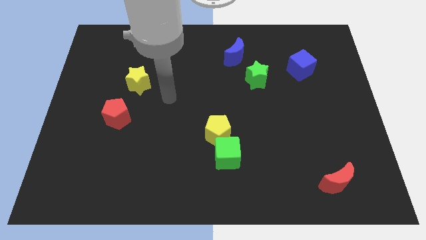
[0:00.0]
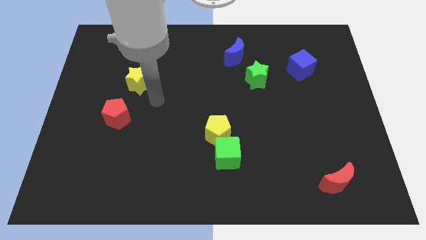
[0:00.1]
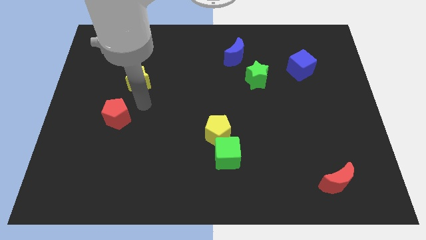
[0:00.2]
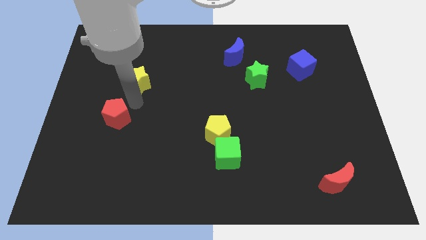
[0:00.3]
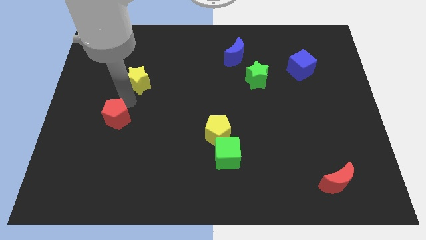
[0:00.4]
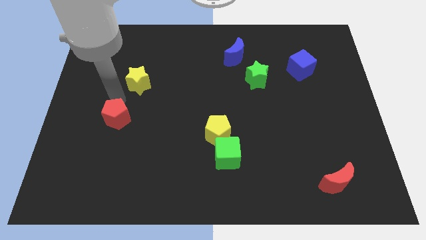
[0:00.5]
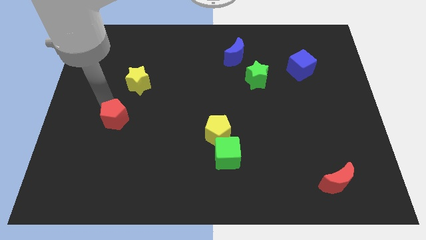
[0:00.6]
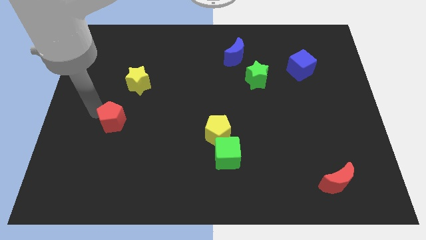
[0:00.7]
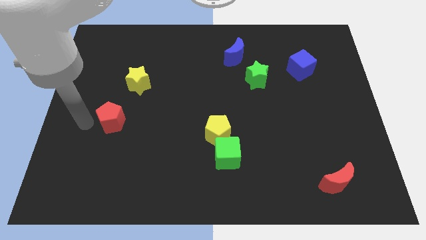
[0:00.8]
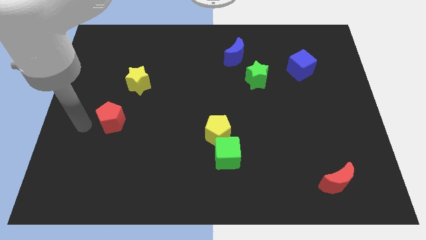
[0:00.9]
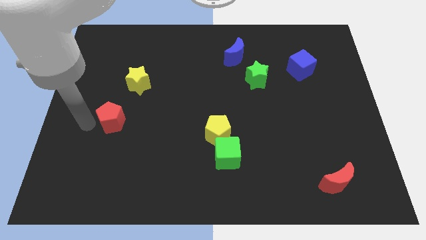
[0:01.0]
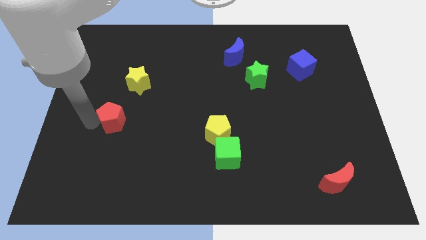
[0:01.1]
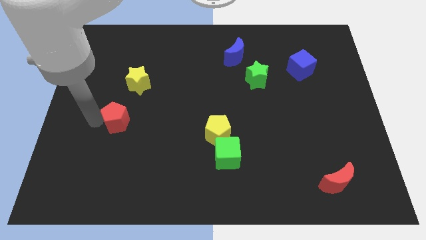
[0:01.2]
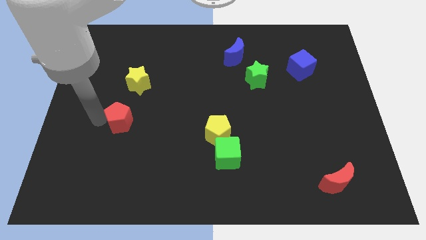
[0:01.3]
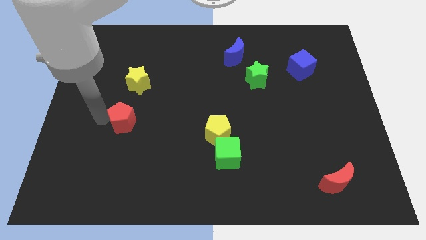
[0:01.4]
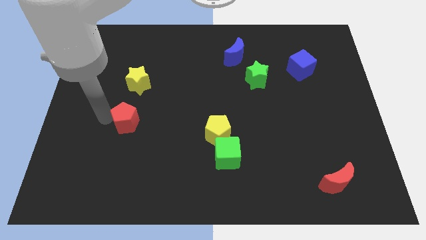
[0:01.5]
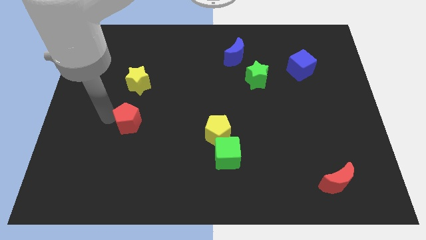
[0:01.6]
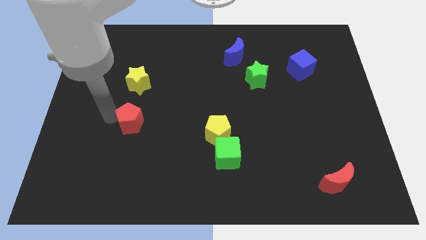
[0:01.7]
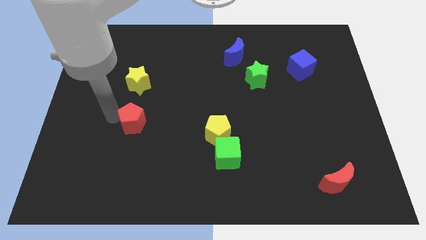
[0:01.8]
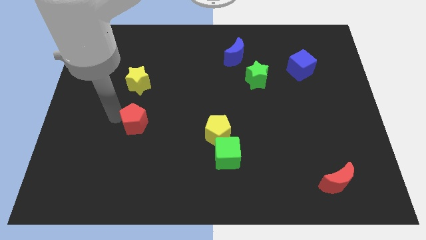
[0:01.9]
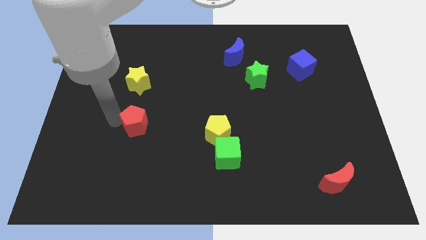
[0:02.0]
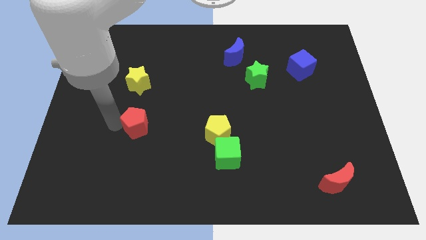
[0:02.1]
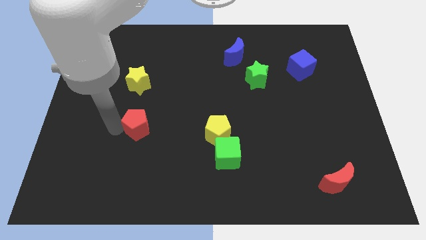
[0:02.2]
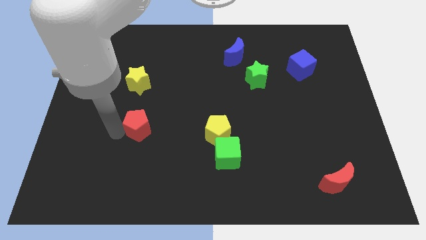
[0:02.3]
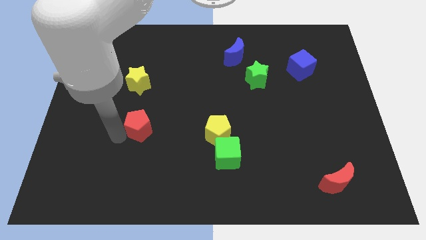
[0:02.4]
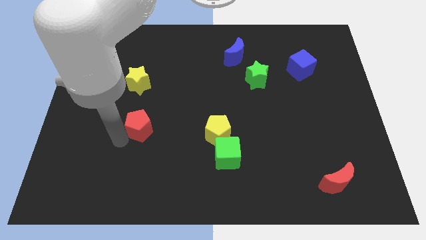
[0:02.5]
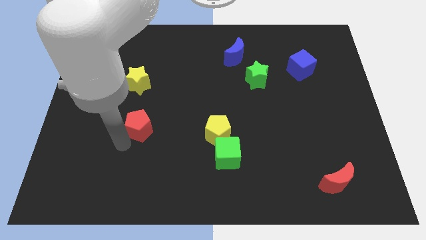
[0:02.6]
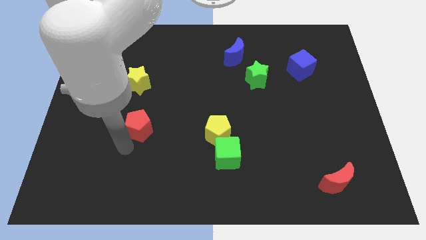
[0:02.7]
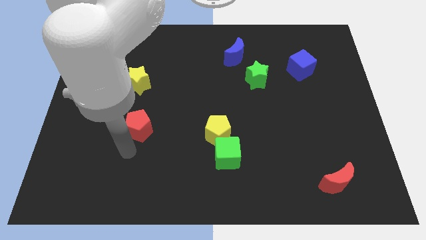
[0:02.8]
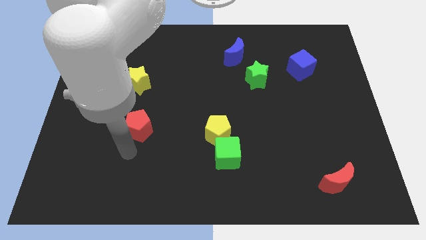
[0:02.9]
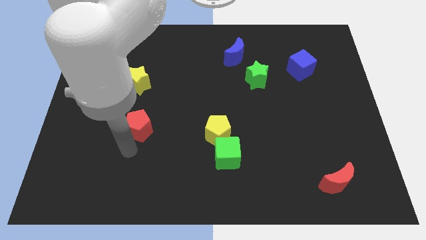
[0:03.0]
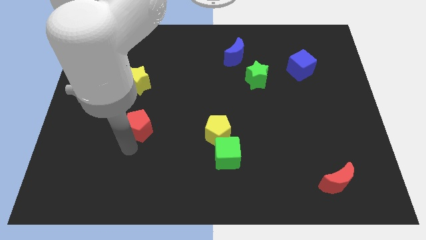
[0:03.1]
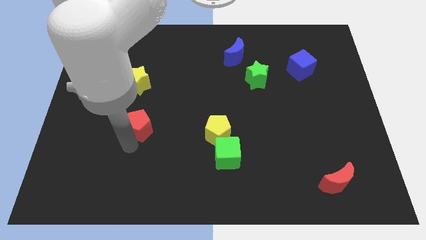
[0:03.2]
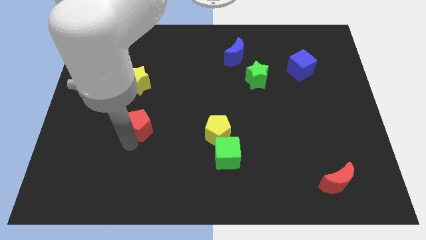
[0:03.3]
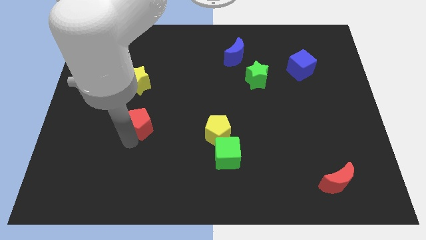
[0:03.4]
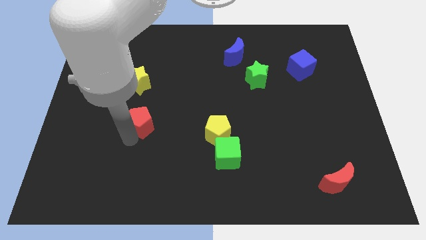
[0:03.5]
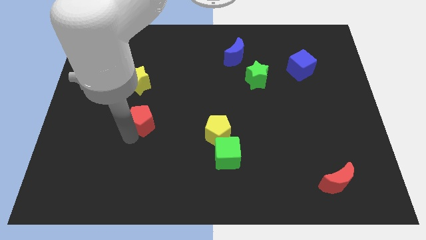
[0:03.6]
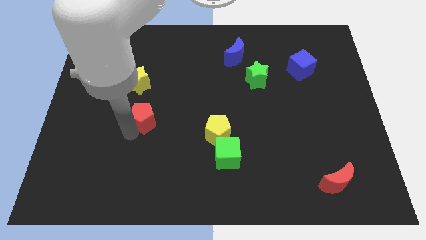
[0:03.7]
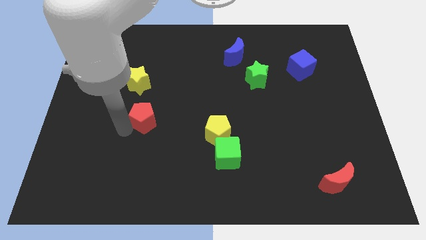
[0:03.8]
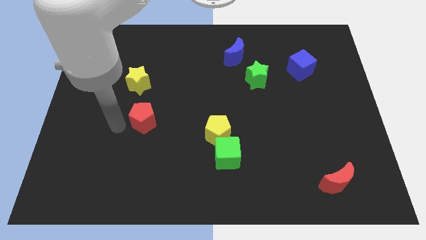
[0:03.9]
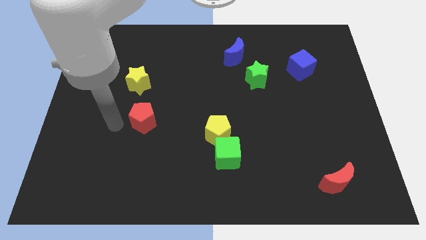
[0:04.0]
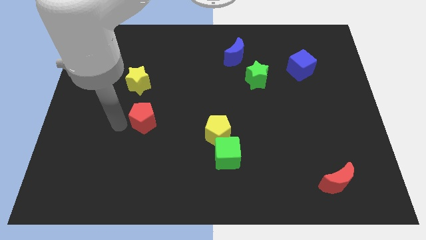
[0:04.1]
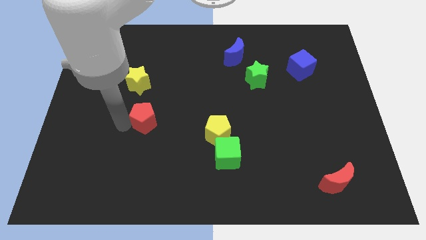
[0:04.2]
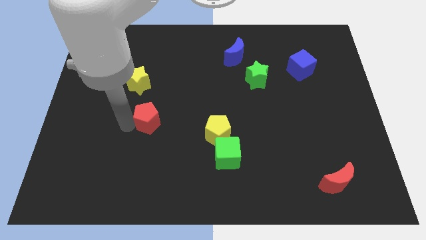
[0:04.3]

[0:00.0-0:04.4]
move the red pentagon somewhat to the right

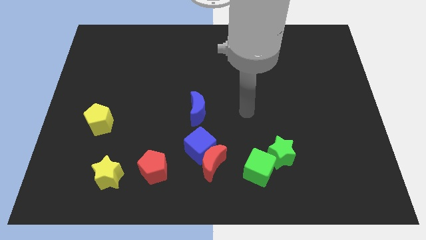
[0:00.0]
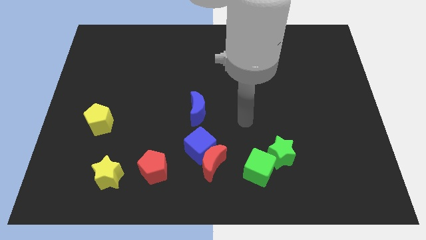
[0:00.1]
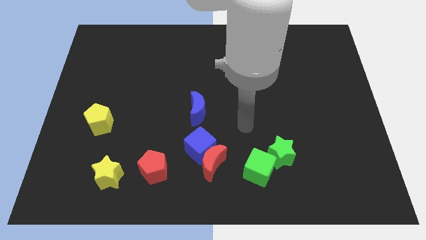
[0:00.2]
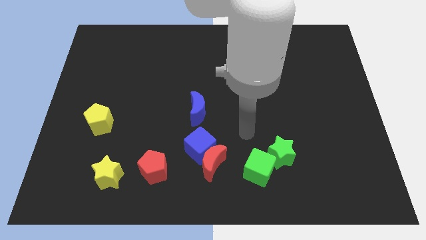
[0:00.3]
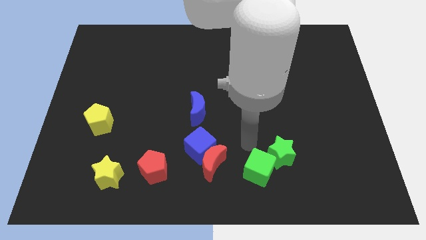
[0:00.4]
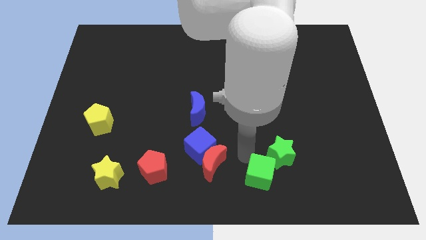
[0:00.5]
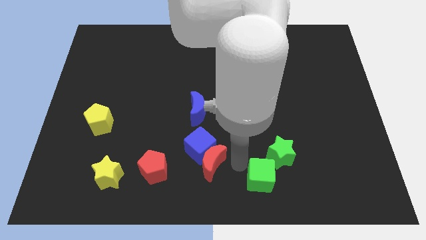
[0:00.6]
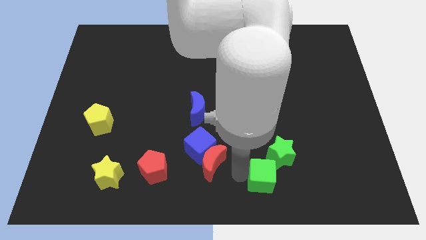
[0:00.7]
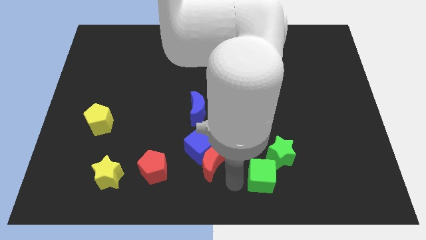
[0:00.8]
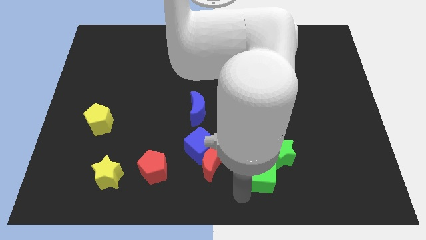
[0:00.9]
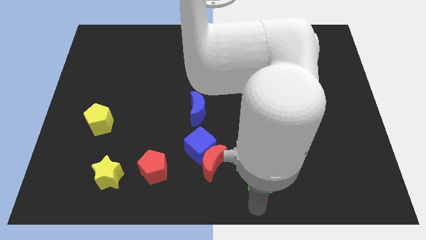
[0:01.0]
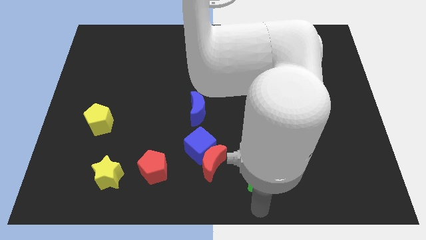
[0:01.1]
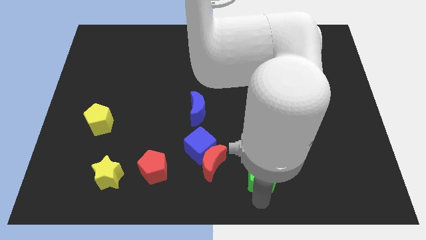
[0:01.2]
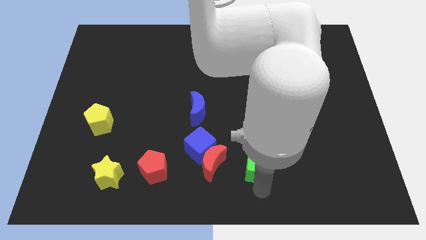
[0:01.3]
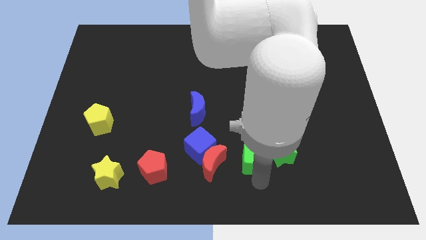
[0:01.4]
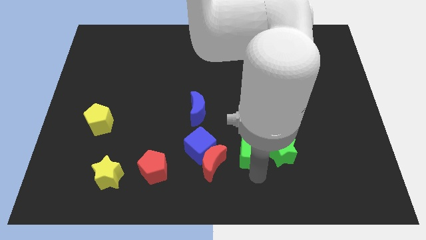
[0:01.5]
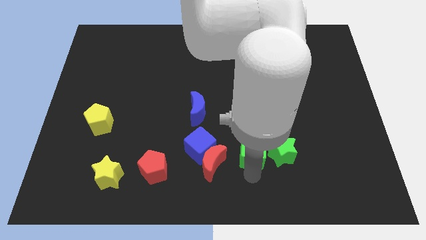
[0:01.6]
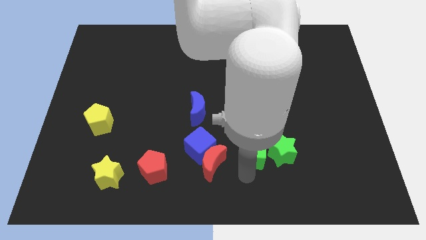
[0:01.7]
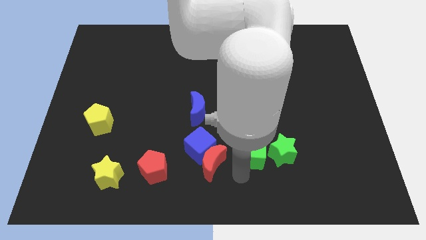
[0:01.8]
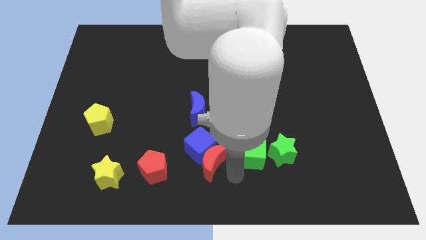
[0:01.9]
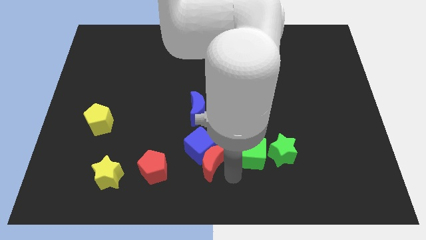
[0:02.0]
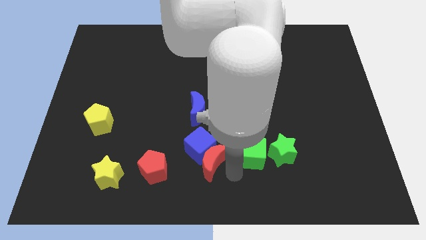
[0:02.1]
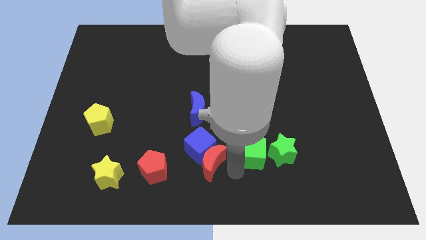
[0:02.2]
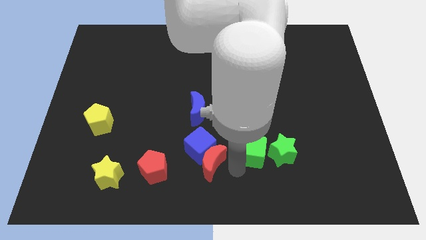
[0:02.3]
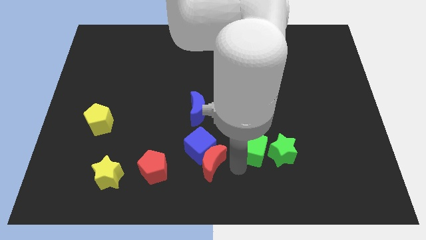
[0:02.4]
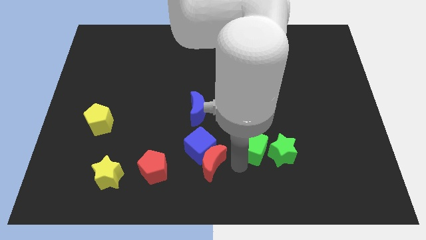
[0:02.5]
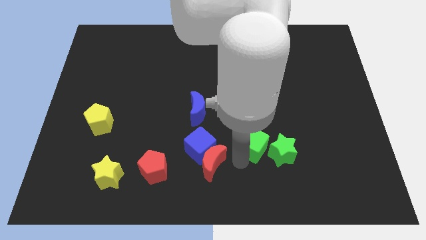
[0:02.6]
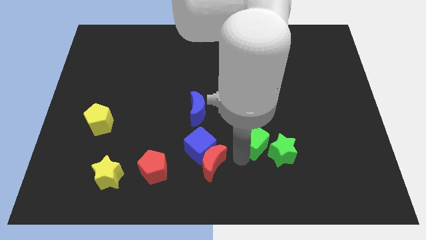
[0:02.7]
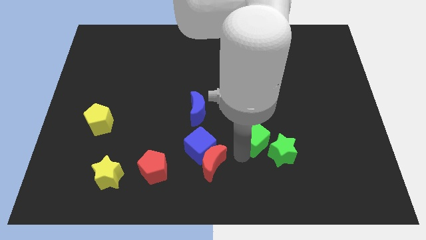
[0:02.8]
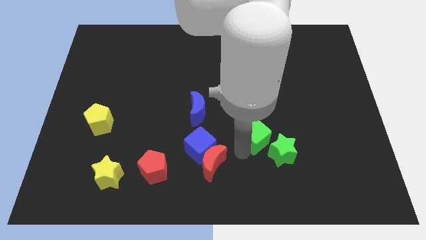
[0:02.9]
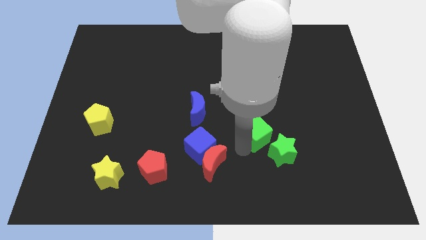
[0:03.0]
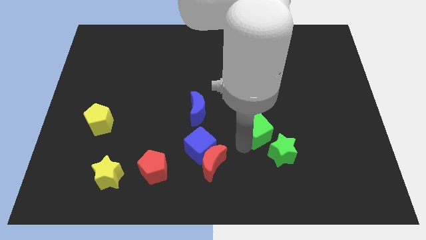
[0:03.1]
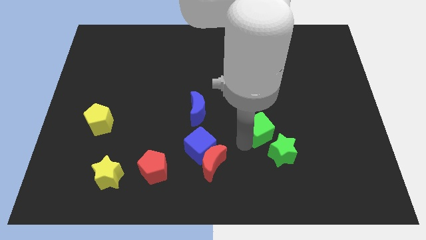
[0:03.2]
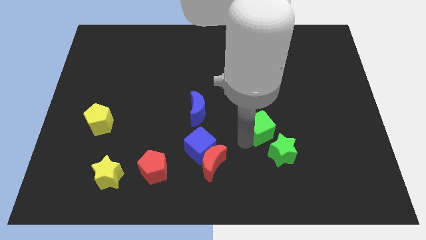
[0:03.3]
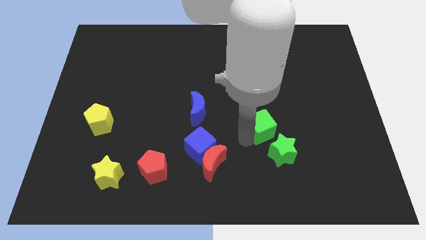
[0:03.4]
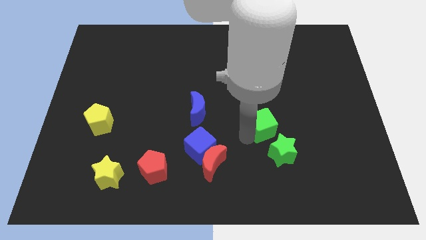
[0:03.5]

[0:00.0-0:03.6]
push the green cube up and to the right diagonally somewhat
